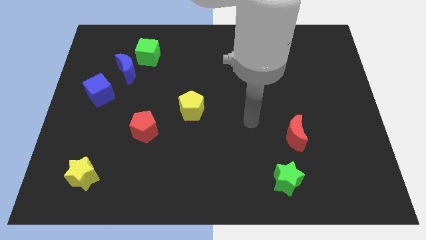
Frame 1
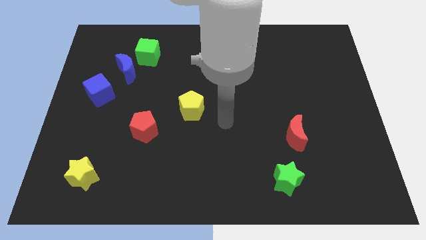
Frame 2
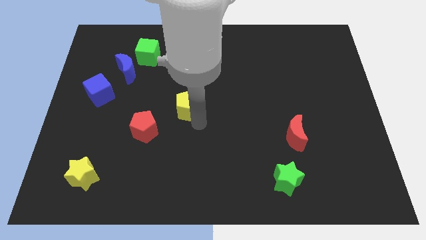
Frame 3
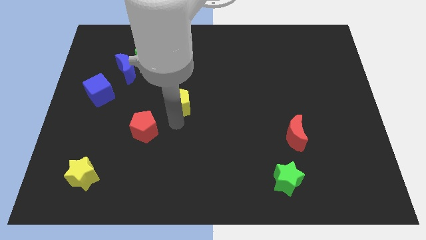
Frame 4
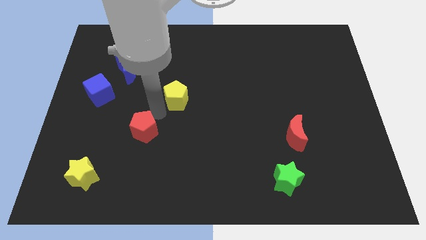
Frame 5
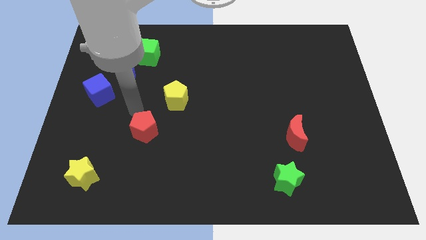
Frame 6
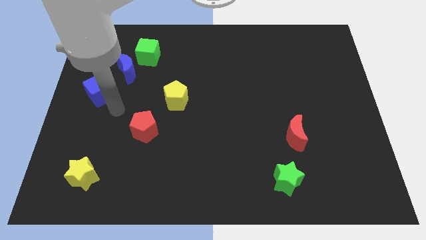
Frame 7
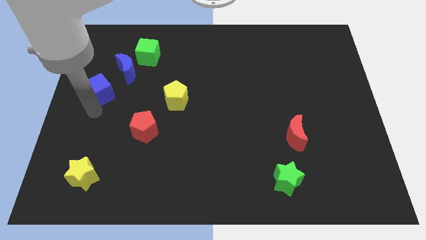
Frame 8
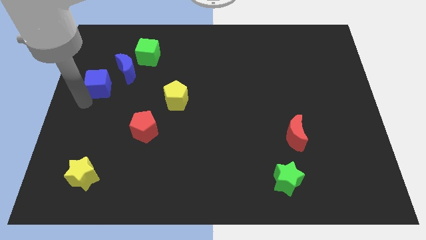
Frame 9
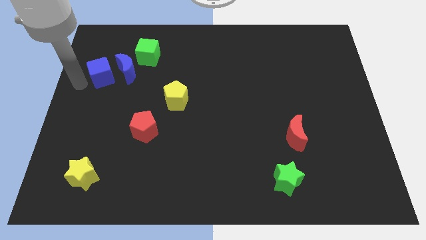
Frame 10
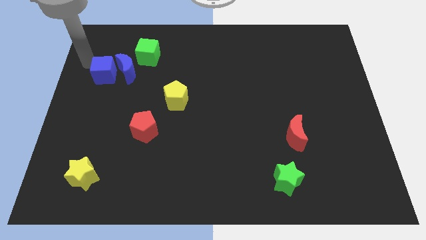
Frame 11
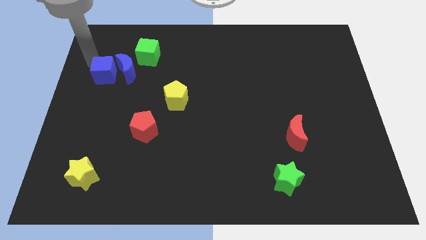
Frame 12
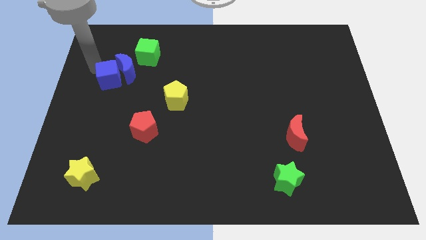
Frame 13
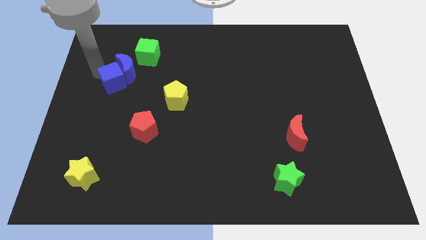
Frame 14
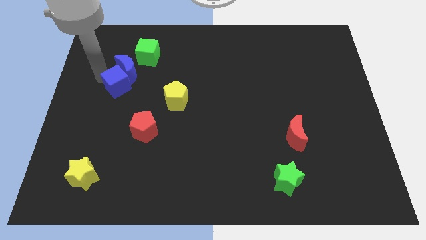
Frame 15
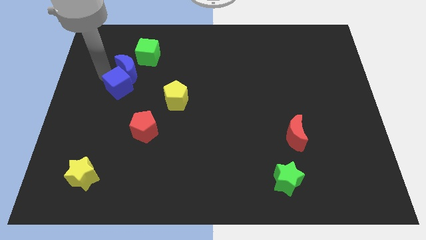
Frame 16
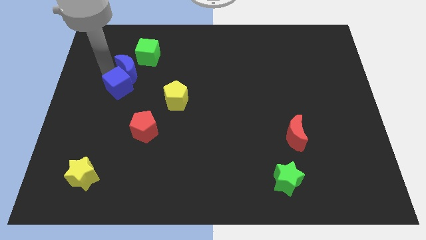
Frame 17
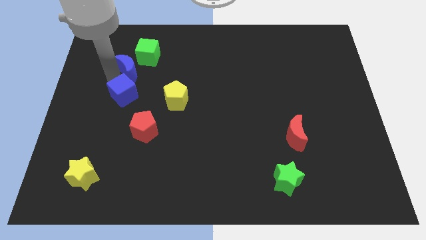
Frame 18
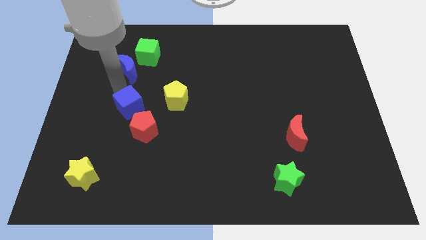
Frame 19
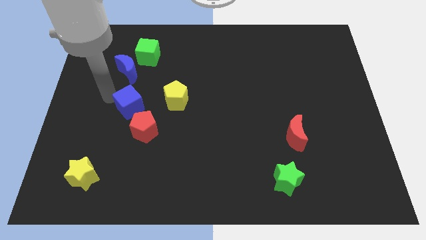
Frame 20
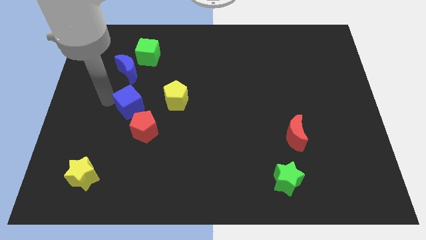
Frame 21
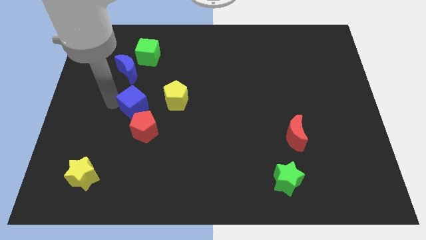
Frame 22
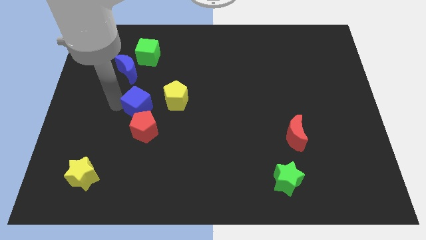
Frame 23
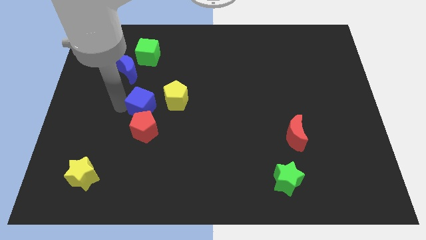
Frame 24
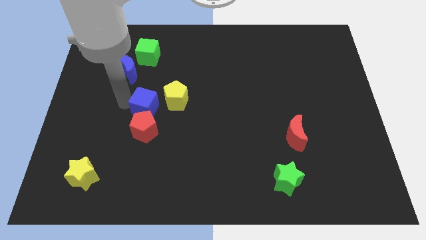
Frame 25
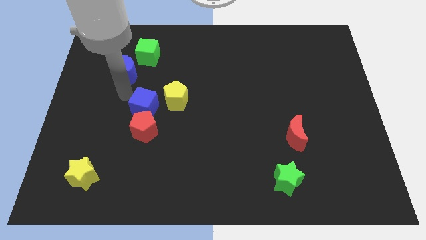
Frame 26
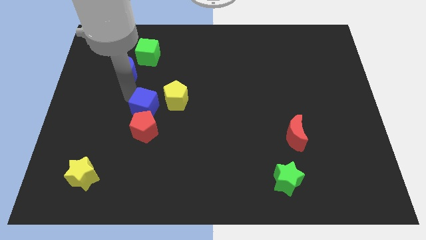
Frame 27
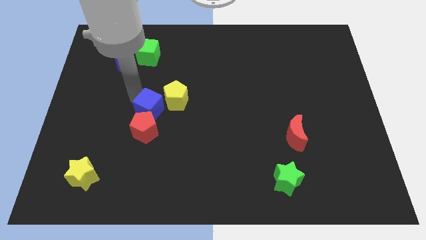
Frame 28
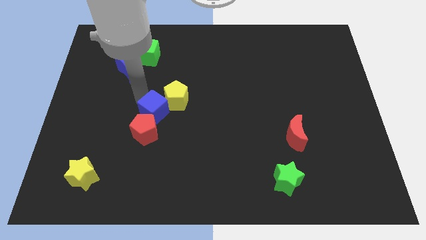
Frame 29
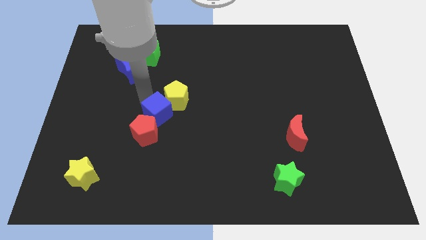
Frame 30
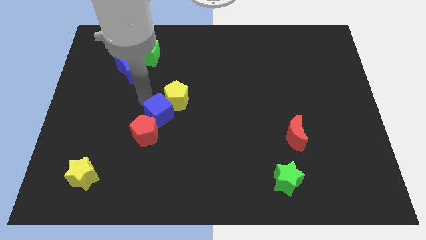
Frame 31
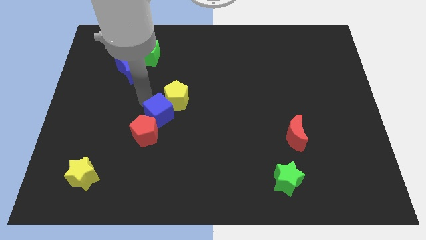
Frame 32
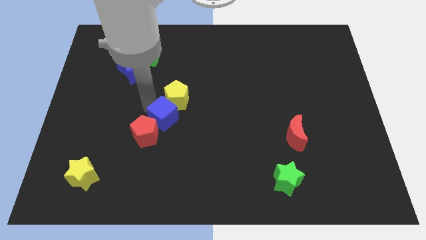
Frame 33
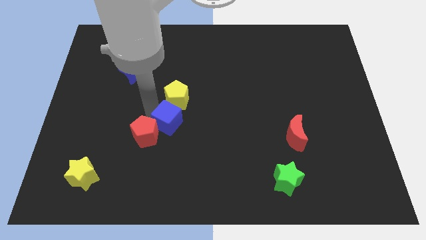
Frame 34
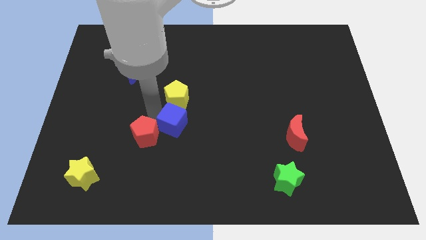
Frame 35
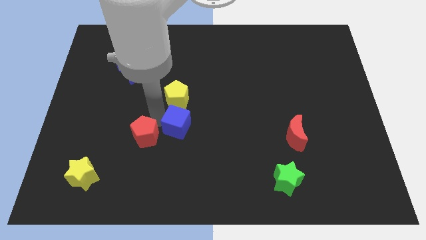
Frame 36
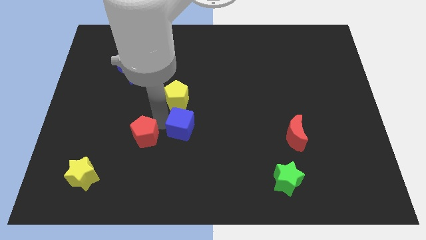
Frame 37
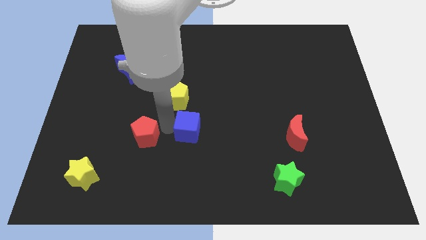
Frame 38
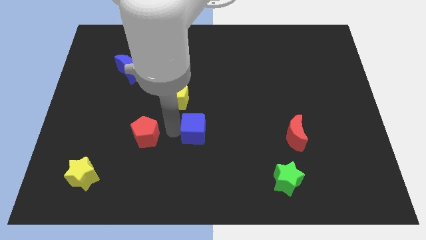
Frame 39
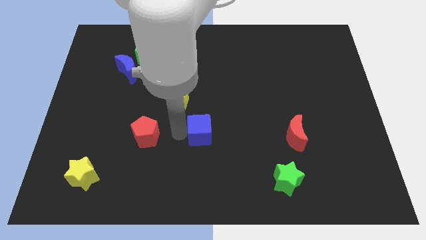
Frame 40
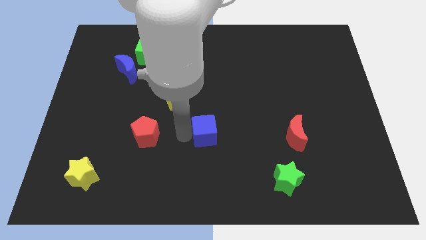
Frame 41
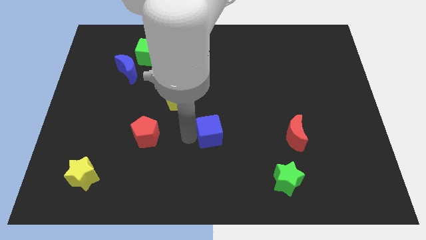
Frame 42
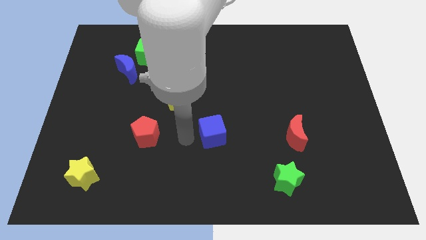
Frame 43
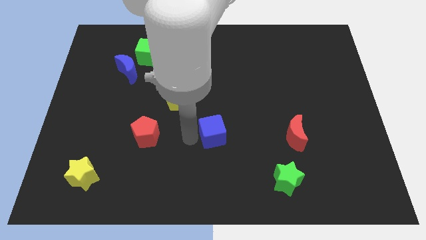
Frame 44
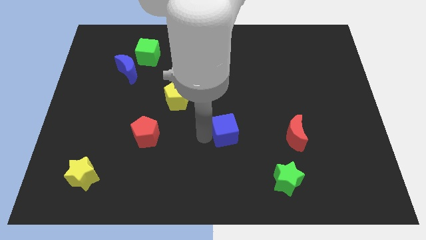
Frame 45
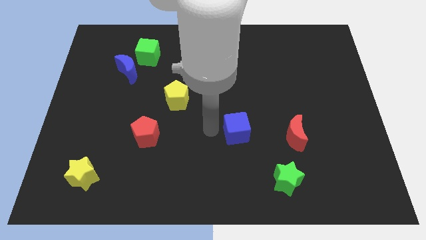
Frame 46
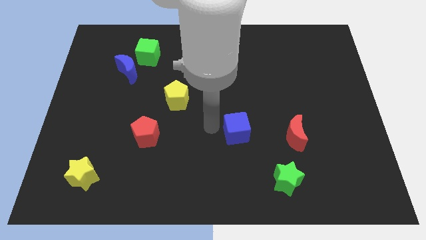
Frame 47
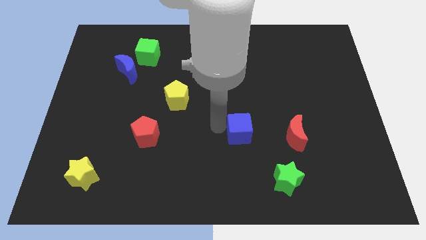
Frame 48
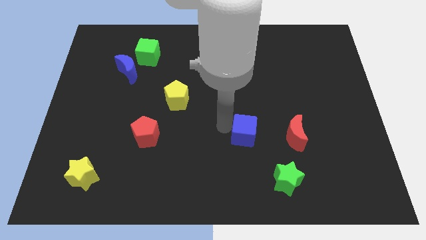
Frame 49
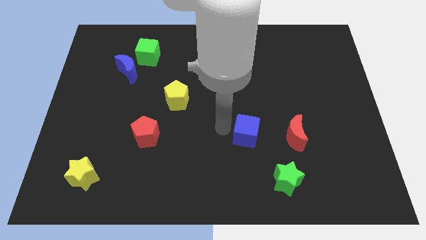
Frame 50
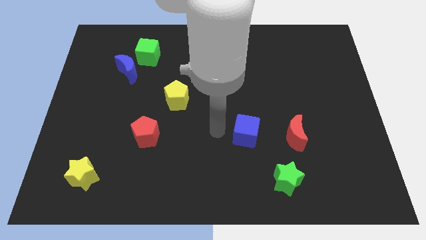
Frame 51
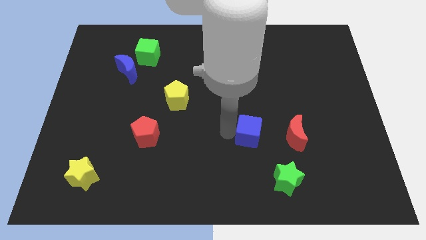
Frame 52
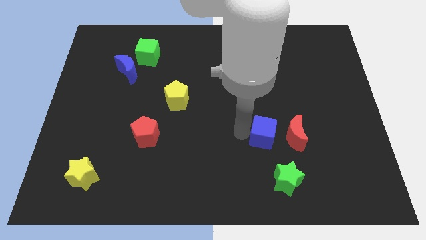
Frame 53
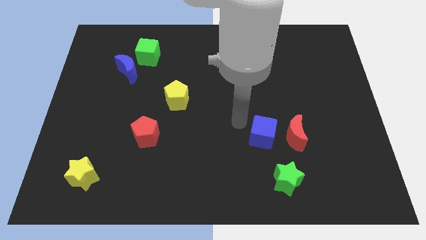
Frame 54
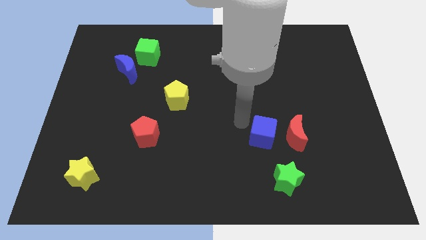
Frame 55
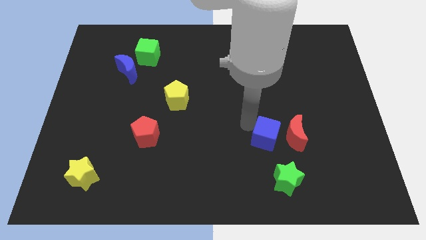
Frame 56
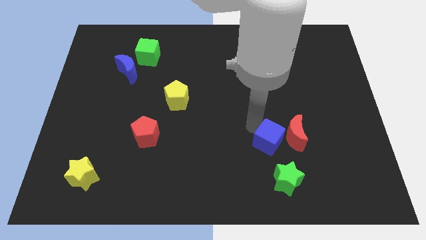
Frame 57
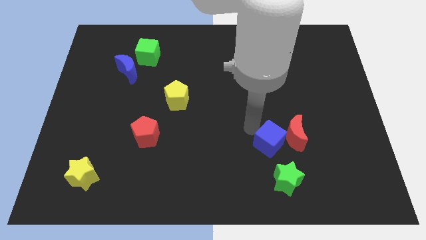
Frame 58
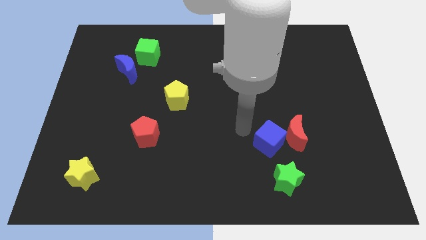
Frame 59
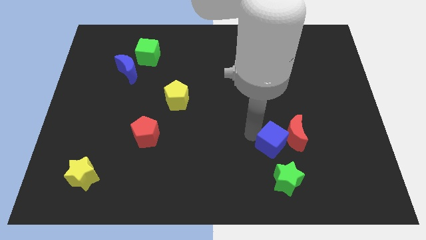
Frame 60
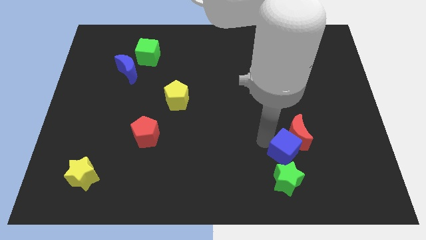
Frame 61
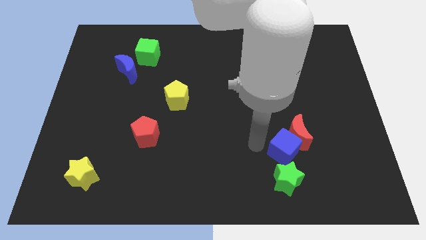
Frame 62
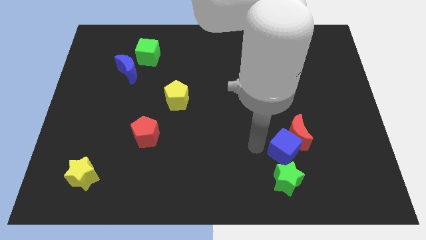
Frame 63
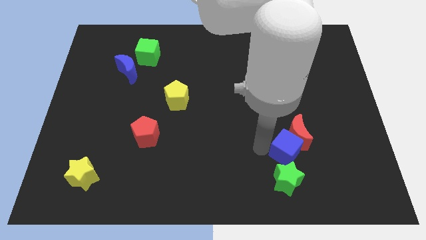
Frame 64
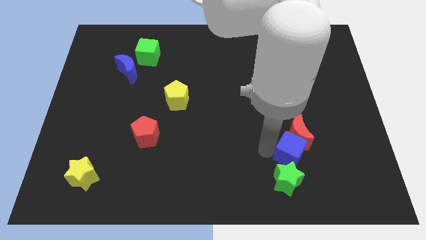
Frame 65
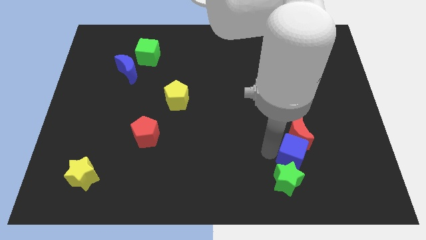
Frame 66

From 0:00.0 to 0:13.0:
put the blue cube to the bottom right of the red moon

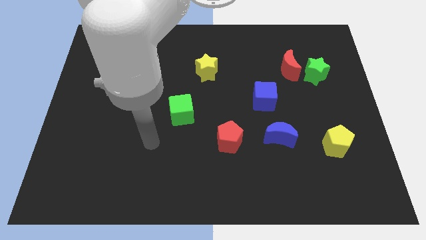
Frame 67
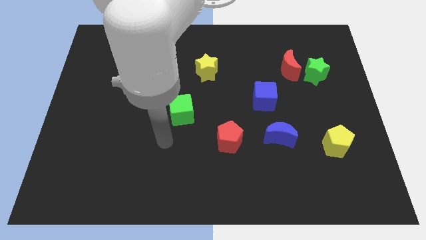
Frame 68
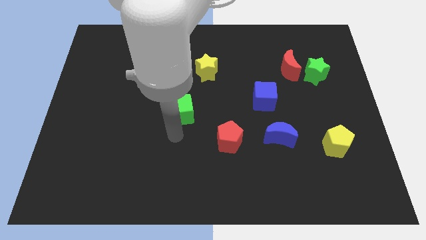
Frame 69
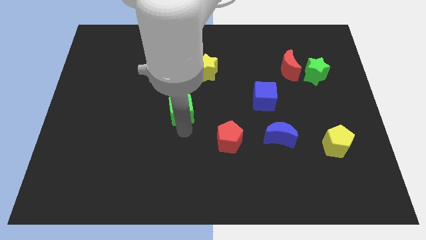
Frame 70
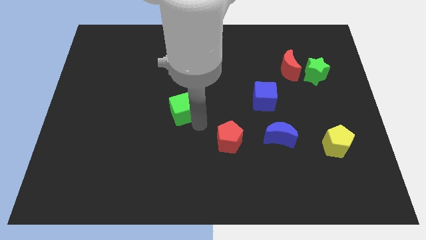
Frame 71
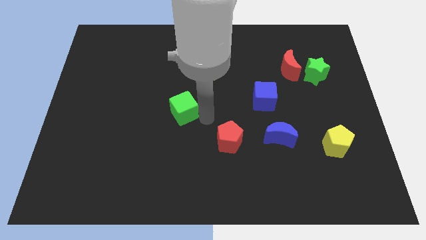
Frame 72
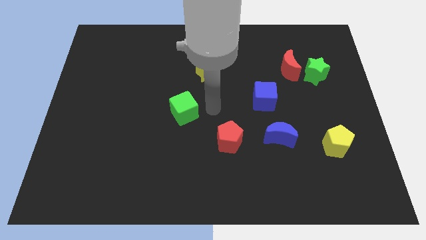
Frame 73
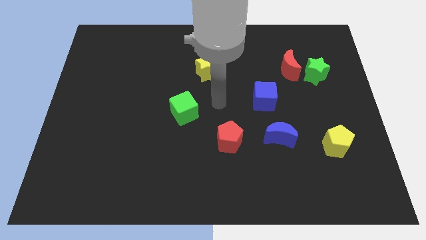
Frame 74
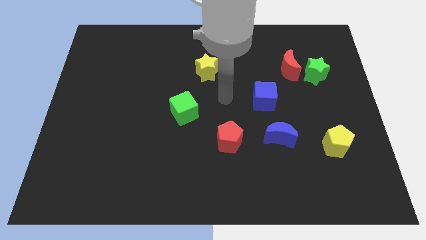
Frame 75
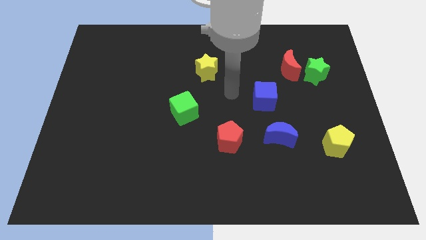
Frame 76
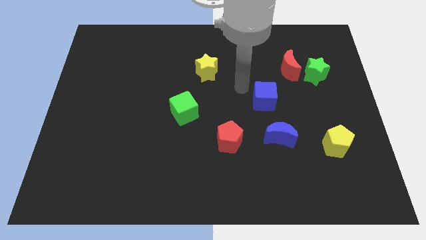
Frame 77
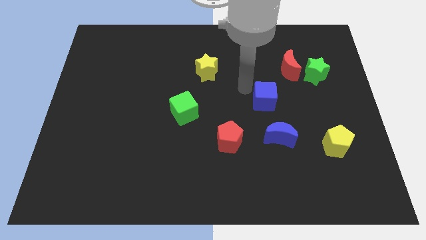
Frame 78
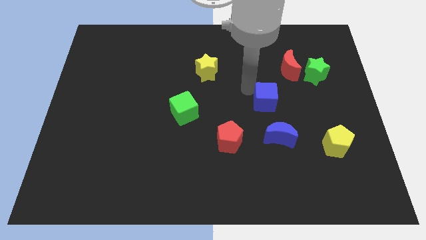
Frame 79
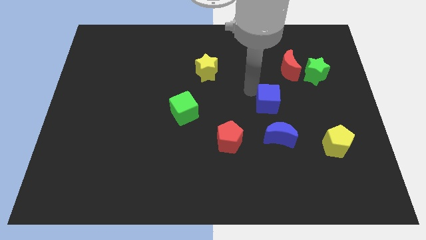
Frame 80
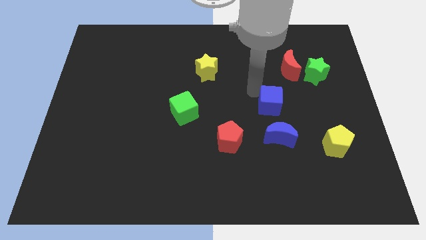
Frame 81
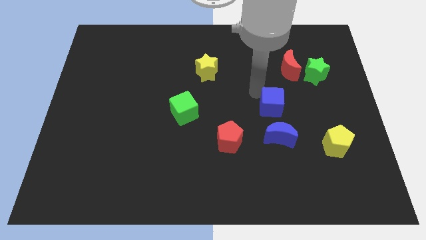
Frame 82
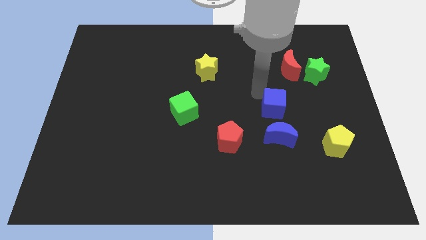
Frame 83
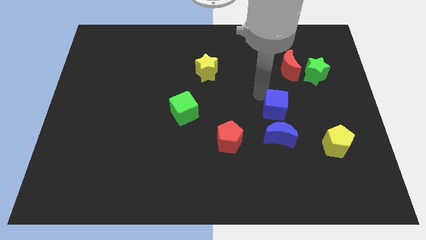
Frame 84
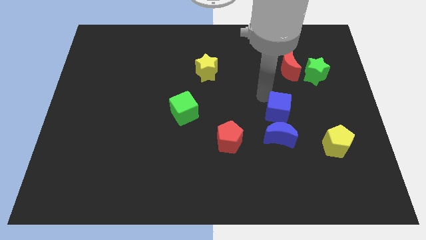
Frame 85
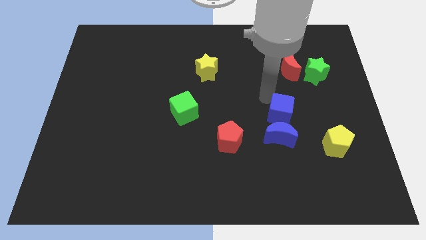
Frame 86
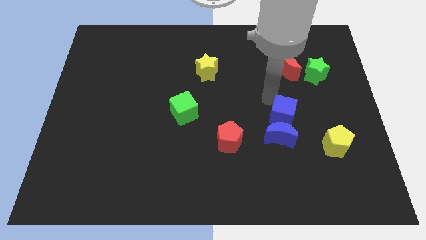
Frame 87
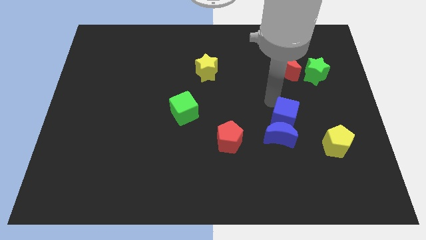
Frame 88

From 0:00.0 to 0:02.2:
move the blue cube to the top left of the yellow pentagon
